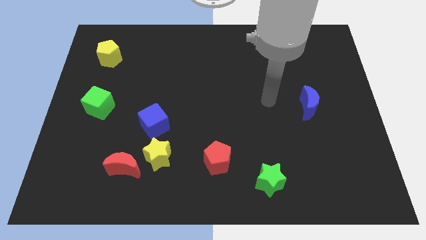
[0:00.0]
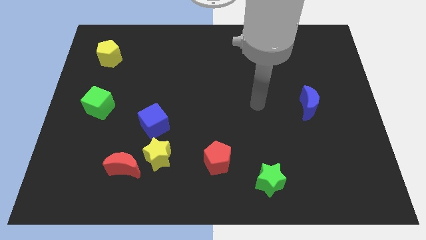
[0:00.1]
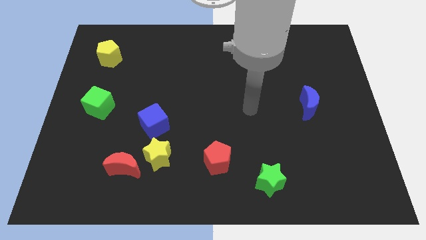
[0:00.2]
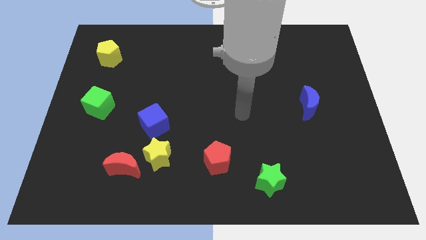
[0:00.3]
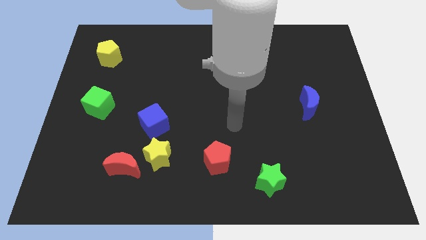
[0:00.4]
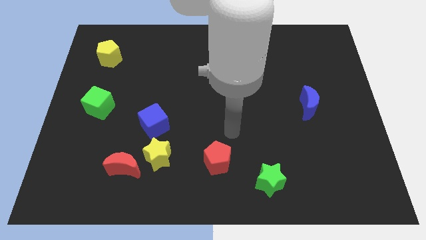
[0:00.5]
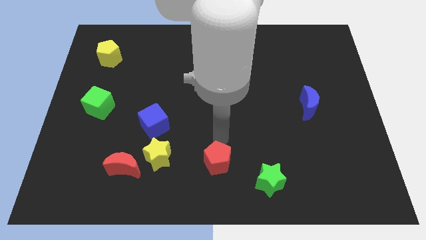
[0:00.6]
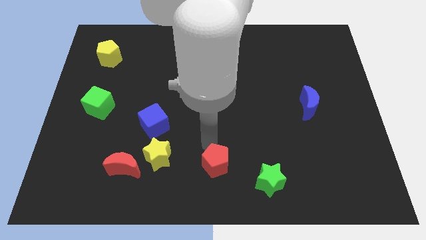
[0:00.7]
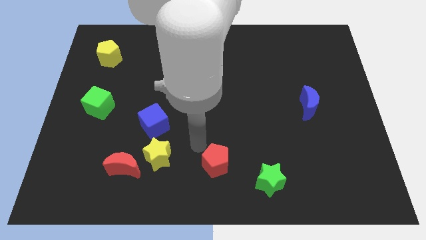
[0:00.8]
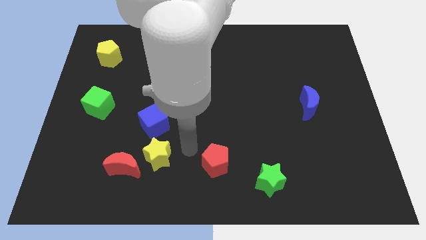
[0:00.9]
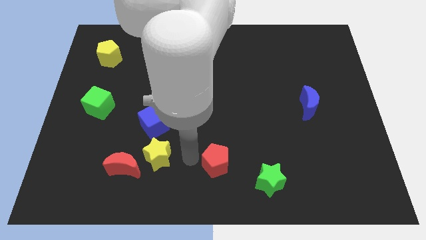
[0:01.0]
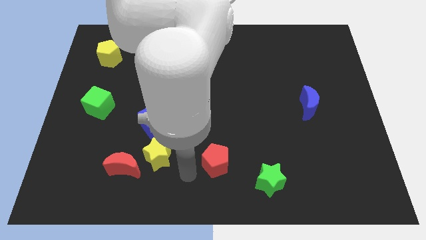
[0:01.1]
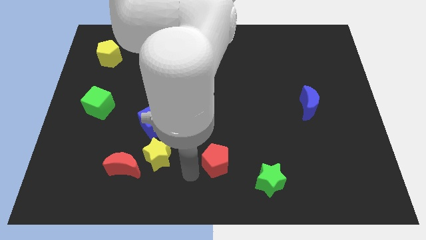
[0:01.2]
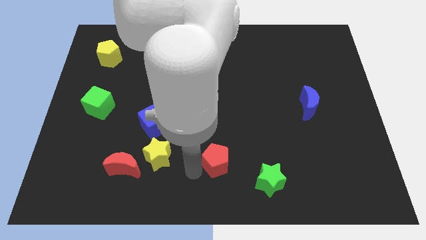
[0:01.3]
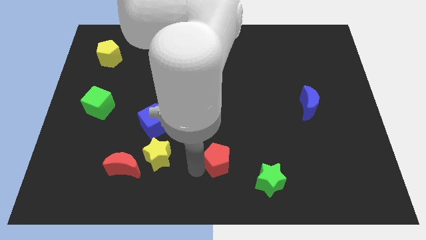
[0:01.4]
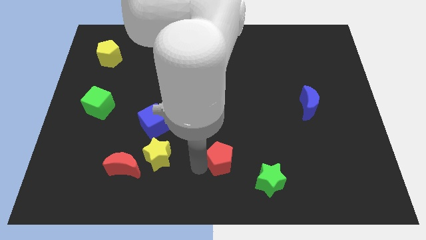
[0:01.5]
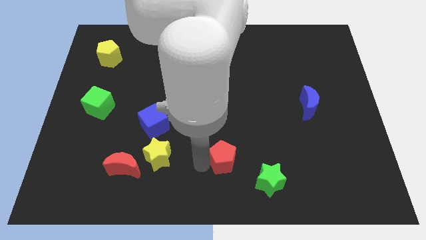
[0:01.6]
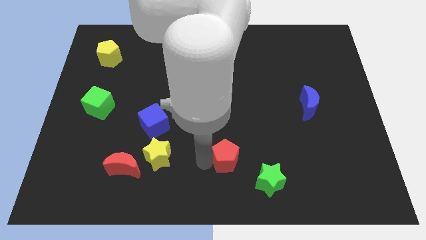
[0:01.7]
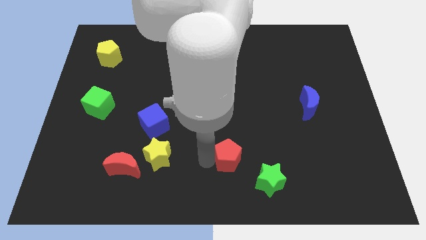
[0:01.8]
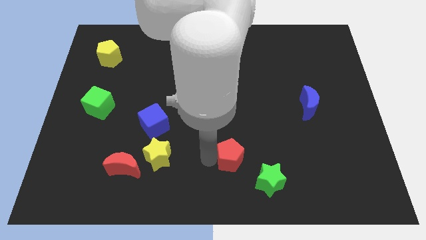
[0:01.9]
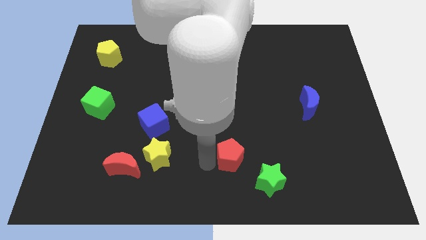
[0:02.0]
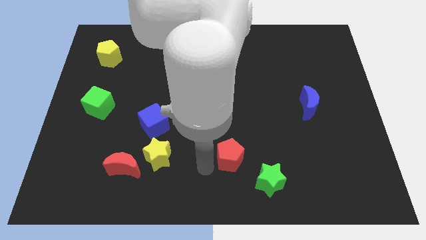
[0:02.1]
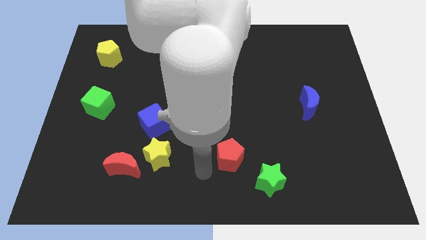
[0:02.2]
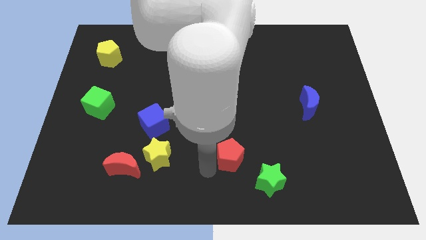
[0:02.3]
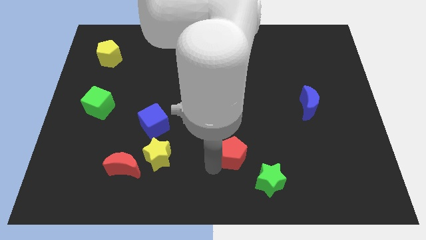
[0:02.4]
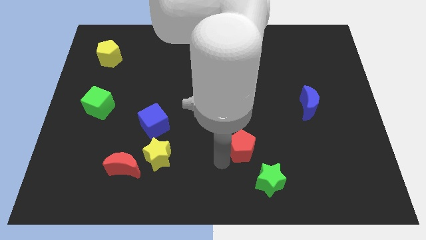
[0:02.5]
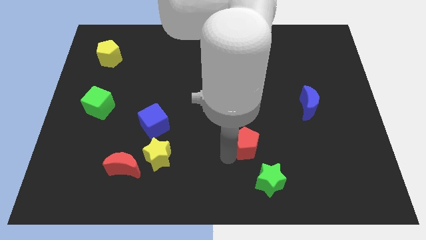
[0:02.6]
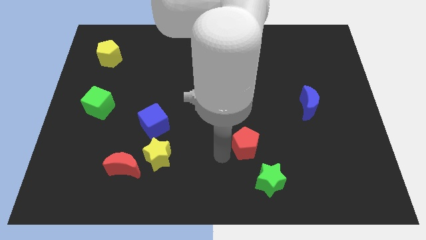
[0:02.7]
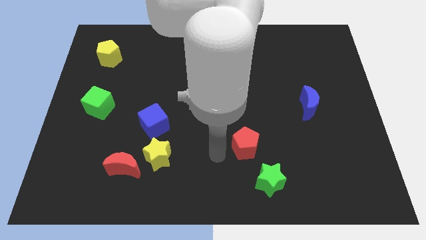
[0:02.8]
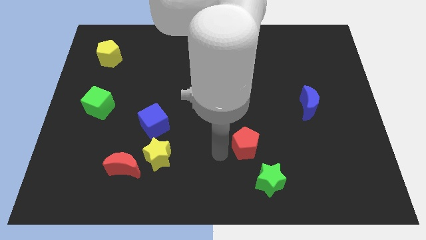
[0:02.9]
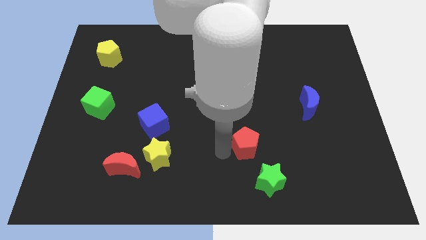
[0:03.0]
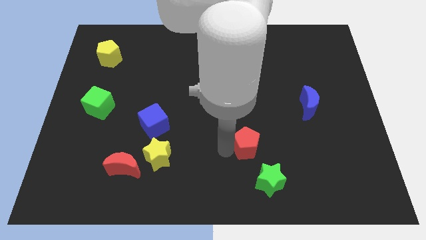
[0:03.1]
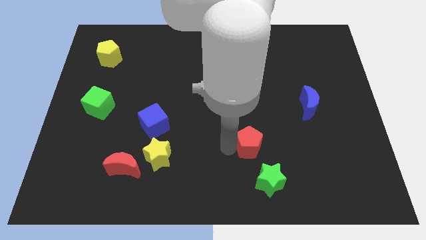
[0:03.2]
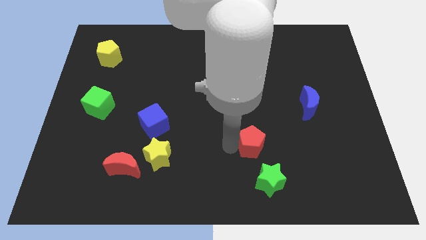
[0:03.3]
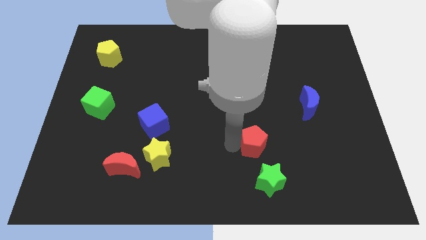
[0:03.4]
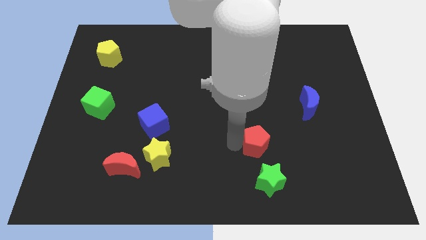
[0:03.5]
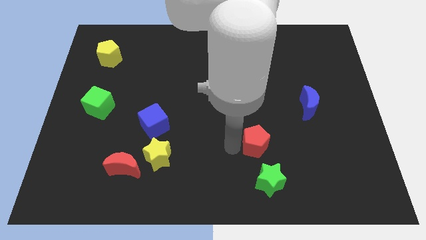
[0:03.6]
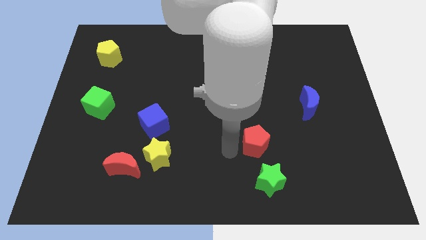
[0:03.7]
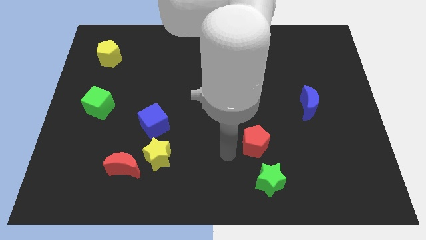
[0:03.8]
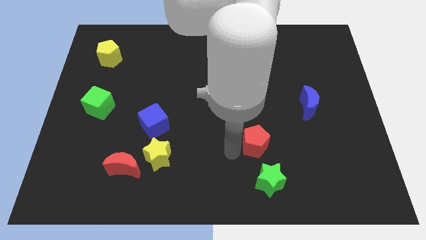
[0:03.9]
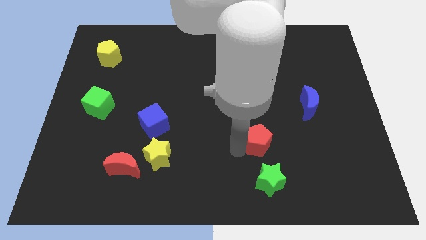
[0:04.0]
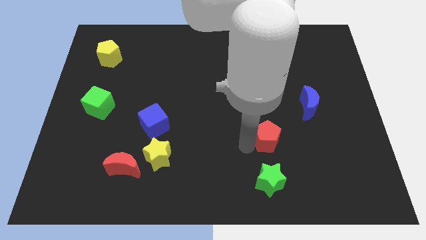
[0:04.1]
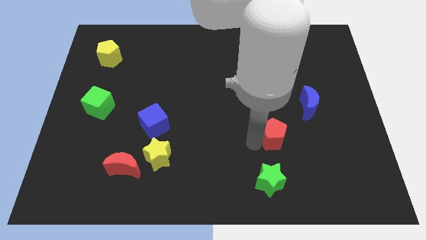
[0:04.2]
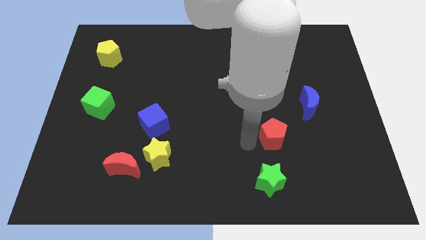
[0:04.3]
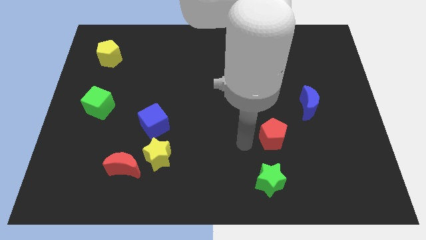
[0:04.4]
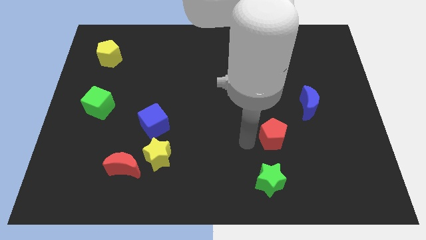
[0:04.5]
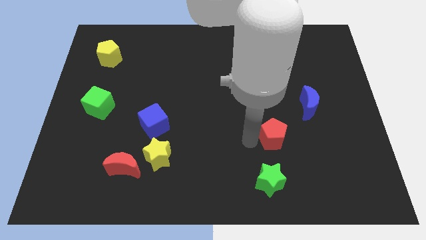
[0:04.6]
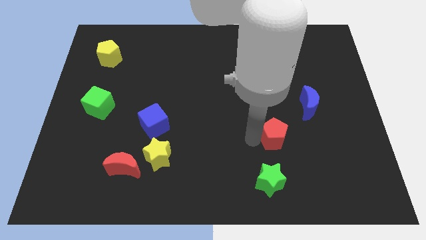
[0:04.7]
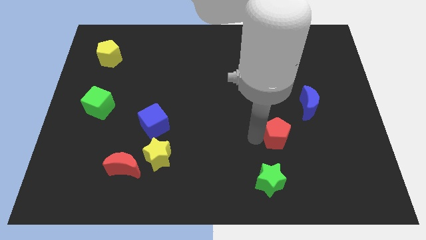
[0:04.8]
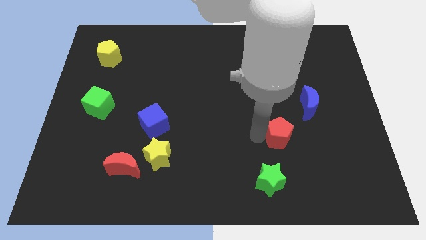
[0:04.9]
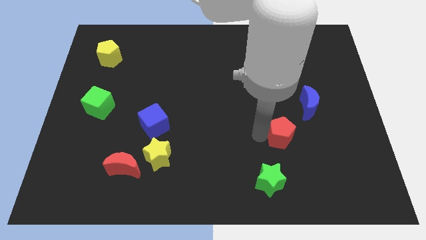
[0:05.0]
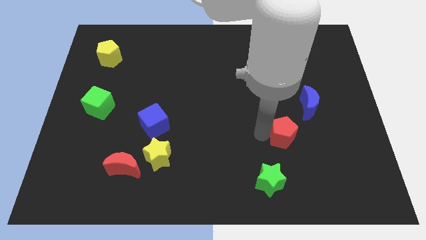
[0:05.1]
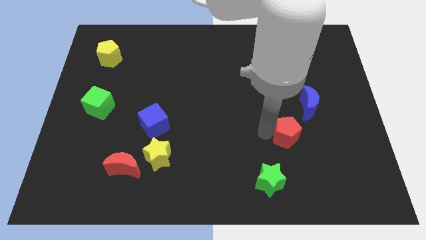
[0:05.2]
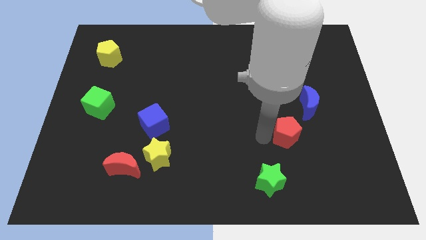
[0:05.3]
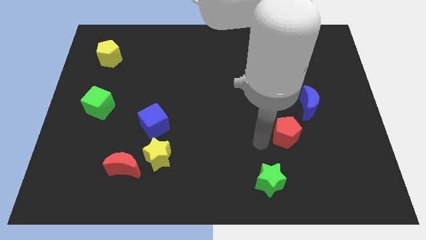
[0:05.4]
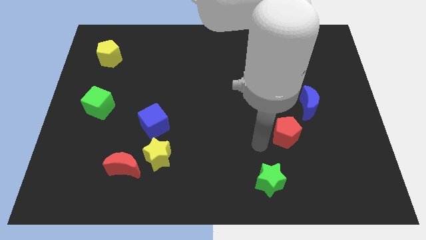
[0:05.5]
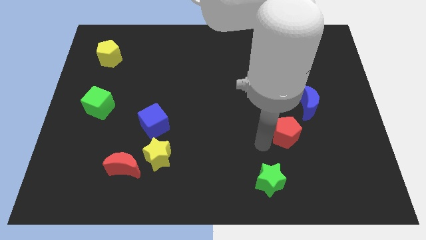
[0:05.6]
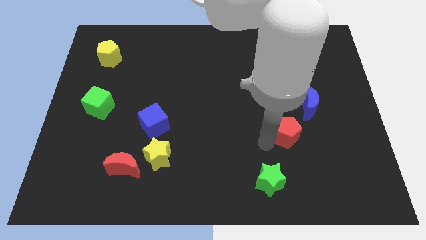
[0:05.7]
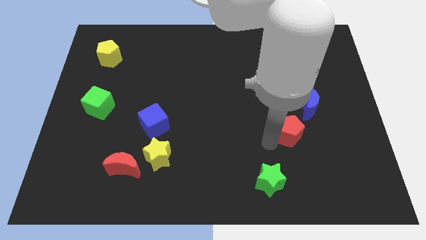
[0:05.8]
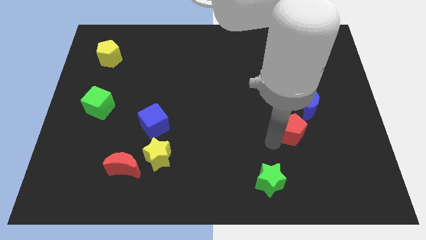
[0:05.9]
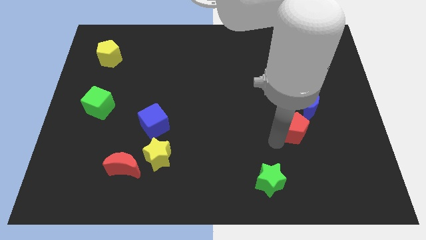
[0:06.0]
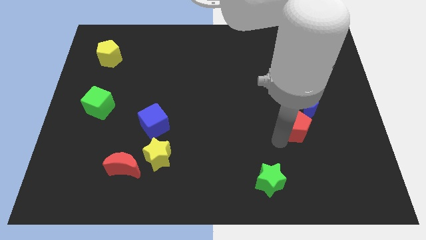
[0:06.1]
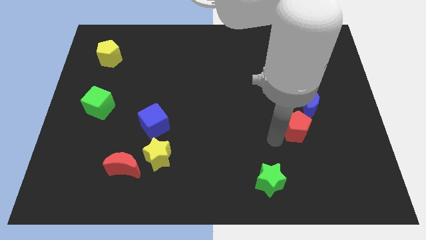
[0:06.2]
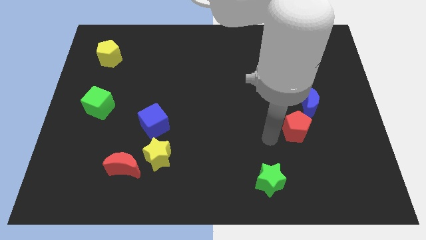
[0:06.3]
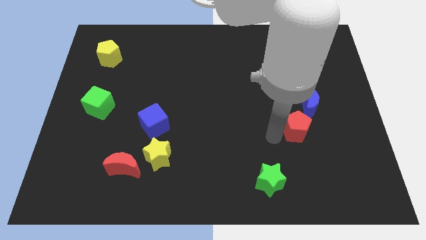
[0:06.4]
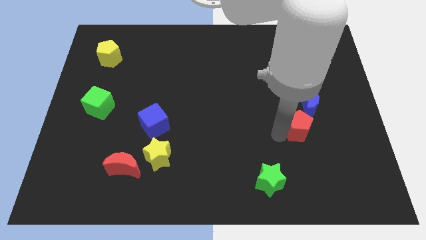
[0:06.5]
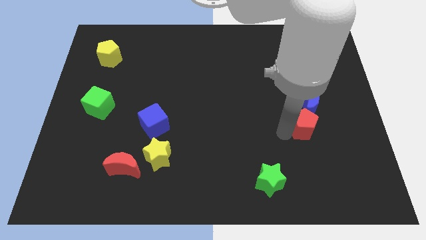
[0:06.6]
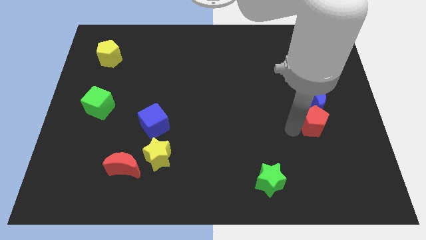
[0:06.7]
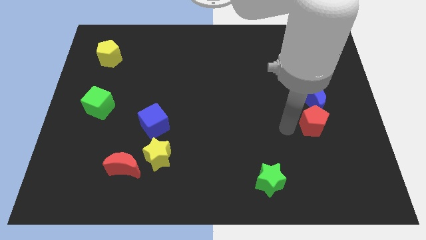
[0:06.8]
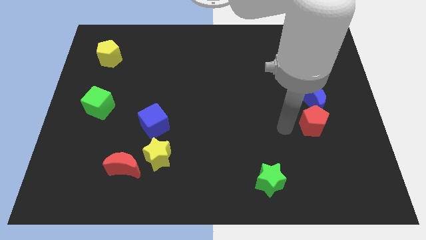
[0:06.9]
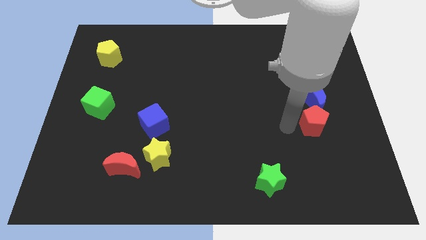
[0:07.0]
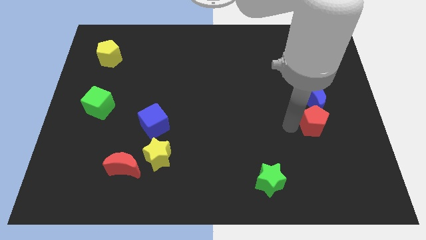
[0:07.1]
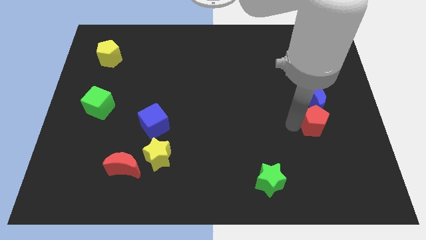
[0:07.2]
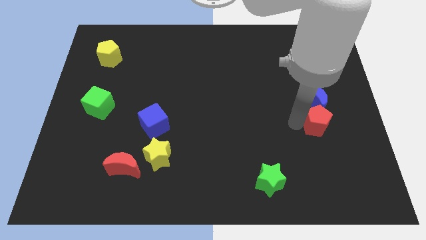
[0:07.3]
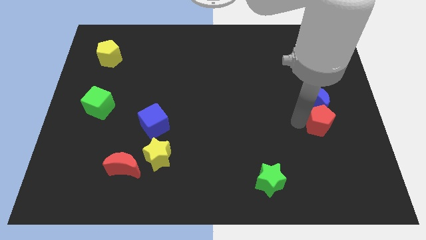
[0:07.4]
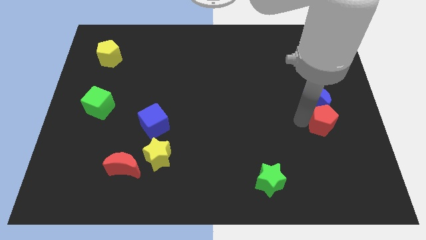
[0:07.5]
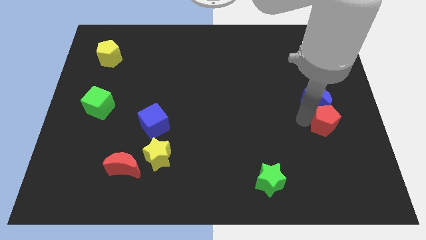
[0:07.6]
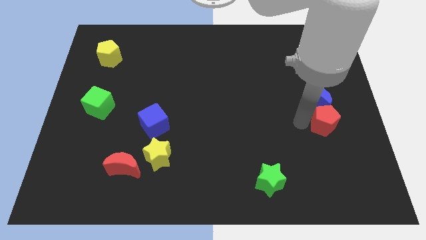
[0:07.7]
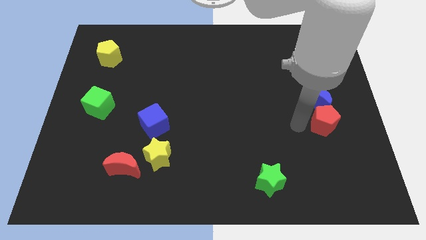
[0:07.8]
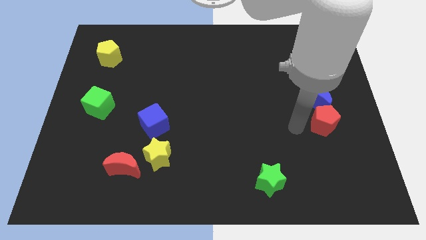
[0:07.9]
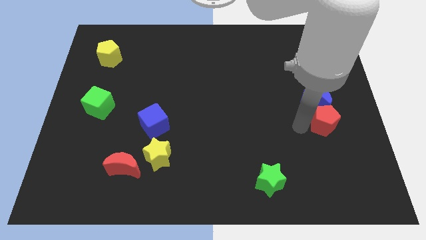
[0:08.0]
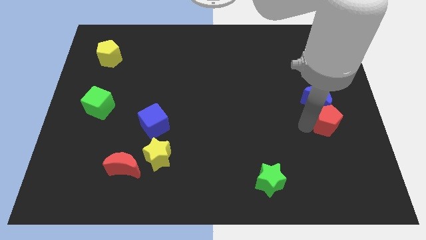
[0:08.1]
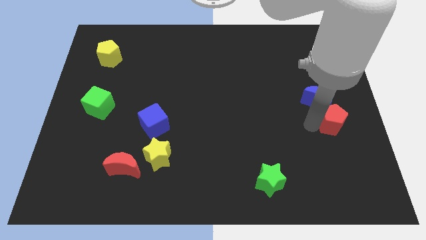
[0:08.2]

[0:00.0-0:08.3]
move the red pentagon to the right side
